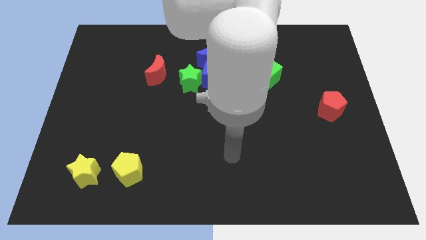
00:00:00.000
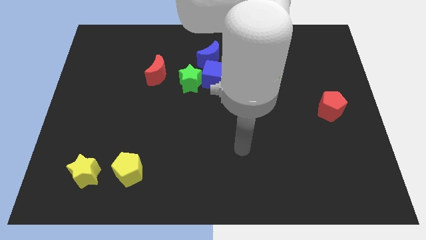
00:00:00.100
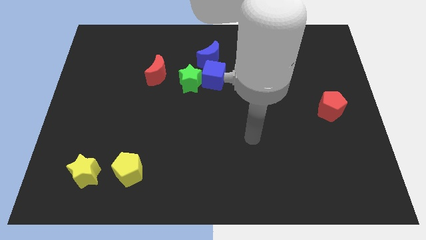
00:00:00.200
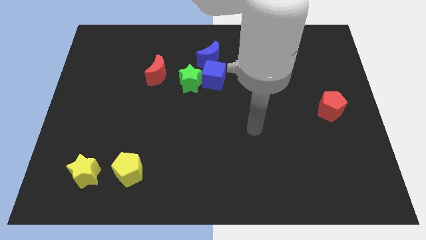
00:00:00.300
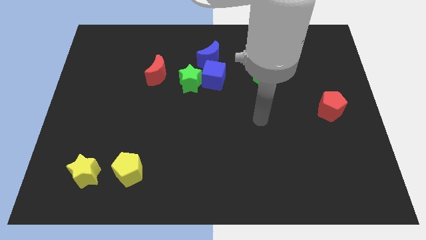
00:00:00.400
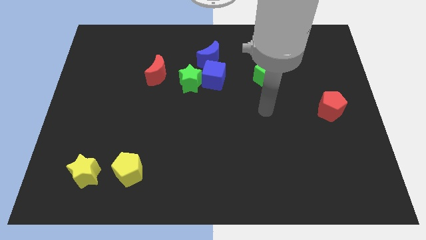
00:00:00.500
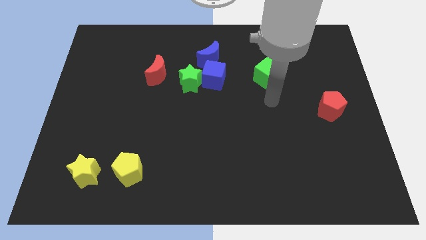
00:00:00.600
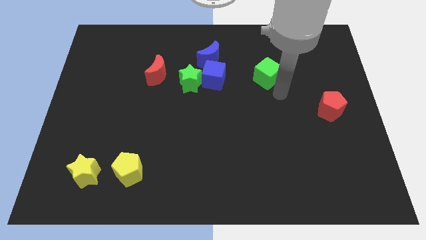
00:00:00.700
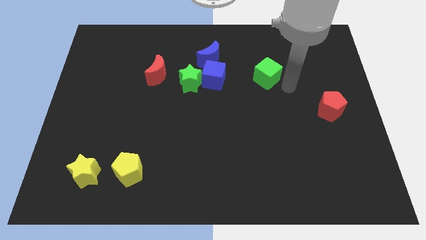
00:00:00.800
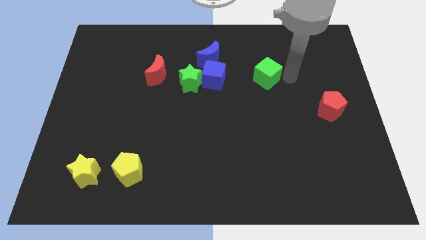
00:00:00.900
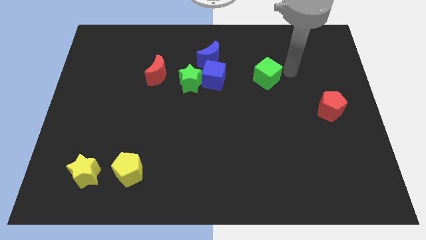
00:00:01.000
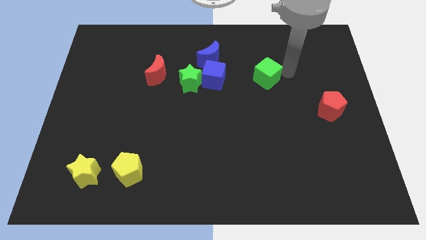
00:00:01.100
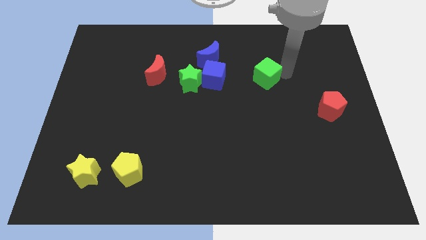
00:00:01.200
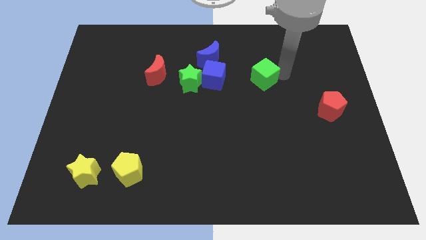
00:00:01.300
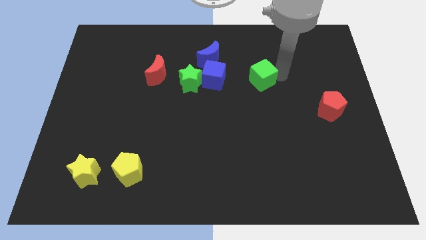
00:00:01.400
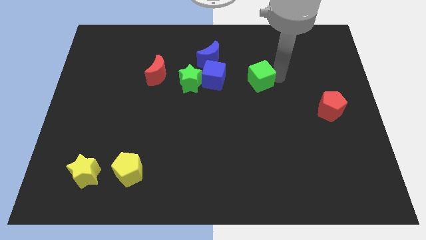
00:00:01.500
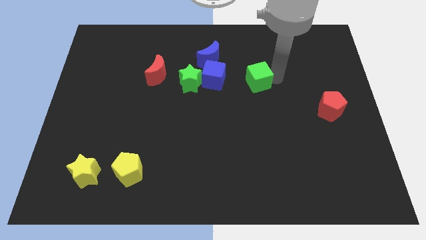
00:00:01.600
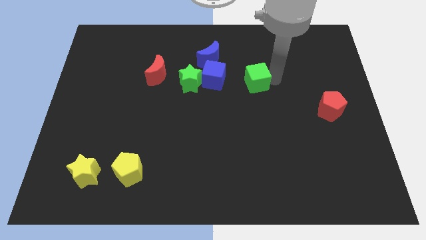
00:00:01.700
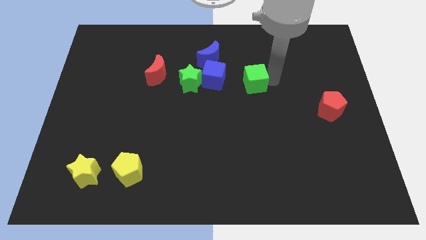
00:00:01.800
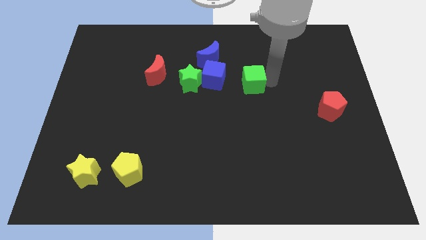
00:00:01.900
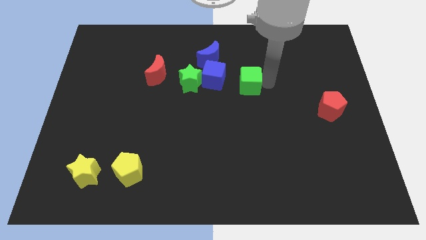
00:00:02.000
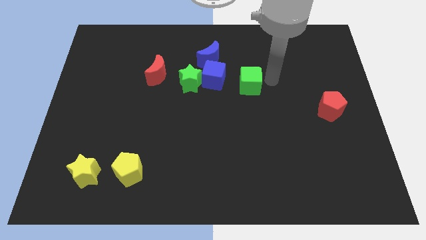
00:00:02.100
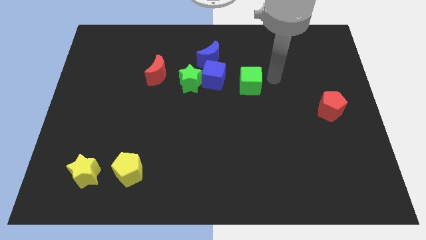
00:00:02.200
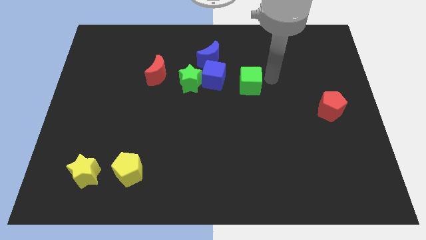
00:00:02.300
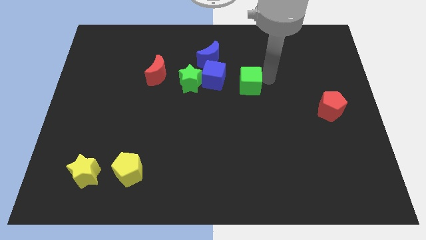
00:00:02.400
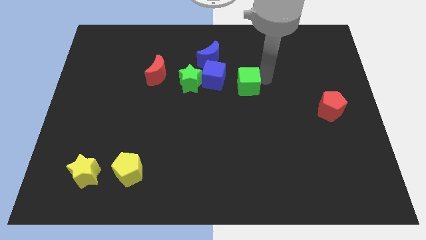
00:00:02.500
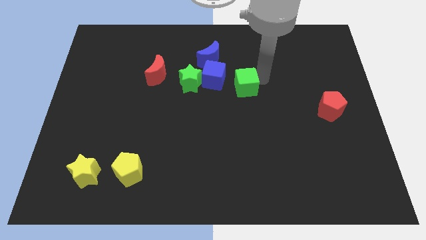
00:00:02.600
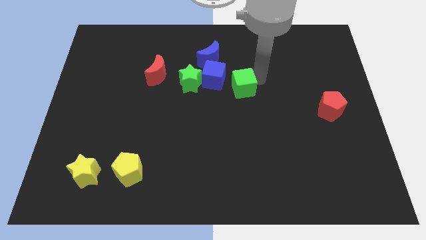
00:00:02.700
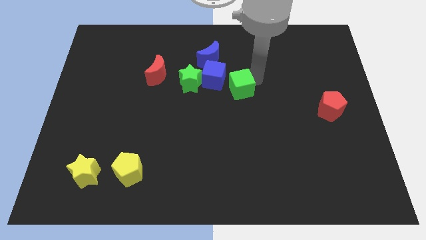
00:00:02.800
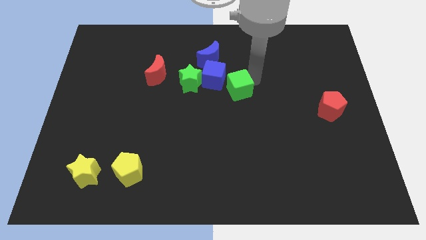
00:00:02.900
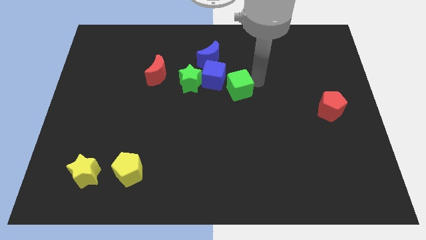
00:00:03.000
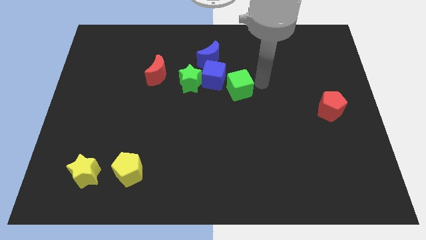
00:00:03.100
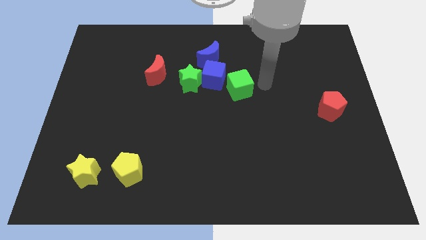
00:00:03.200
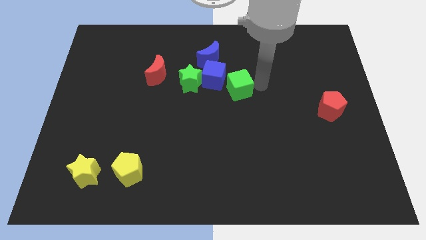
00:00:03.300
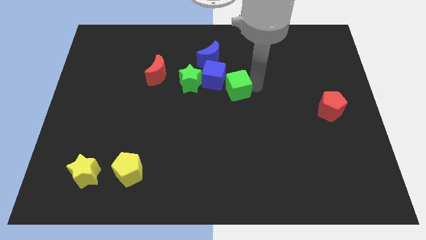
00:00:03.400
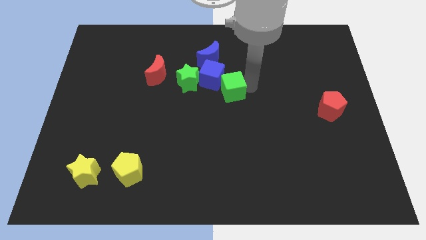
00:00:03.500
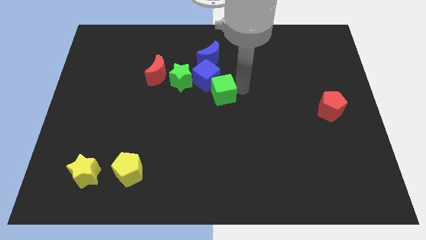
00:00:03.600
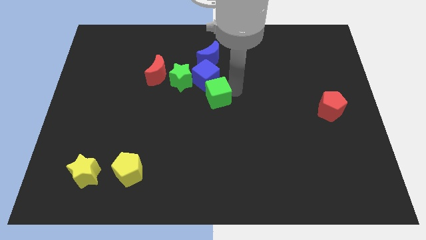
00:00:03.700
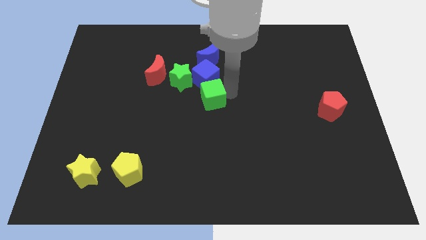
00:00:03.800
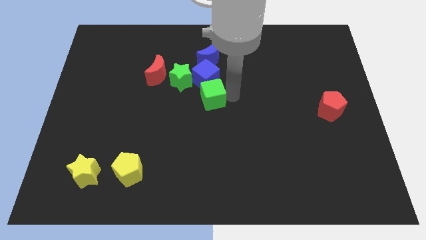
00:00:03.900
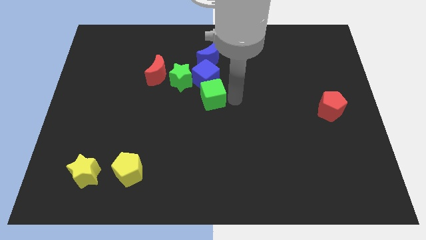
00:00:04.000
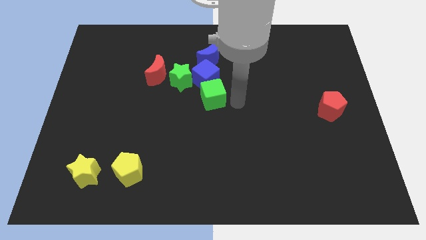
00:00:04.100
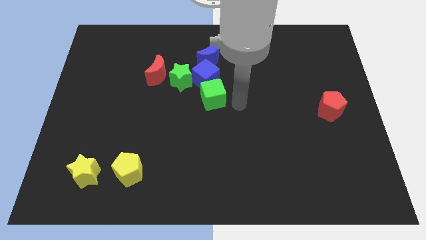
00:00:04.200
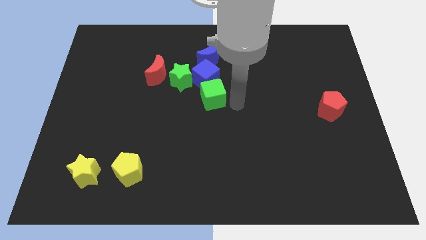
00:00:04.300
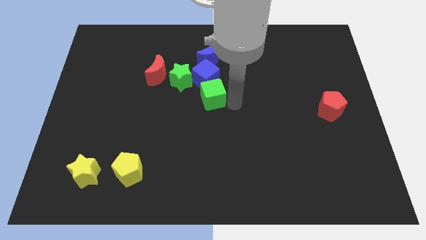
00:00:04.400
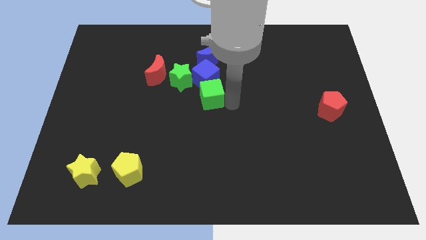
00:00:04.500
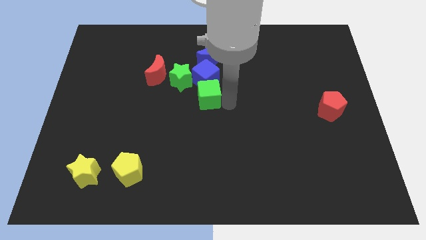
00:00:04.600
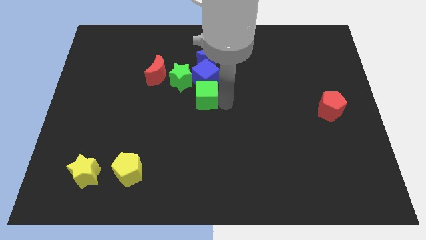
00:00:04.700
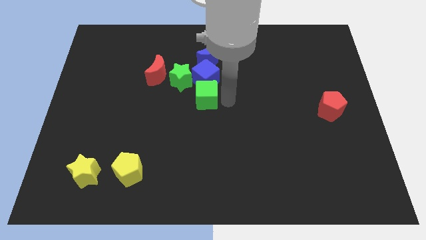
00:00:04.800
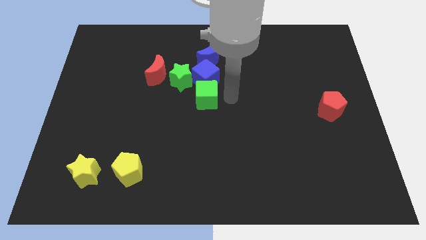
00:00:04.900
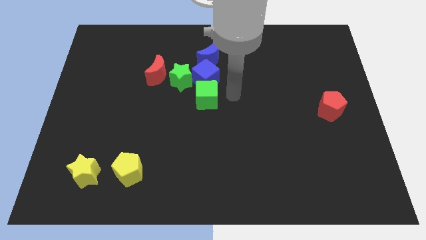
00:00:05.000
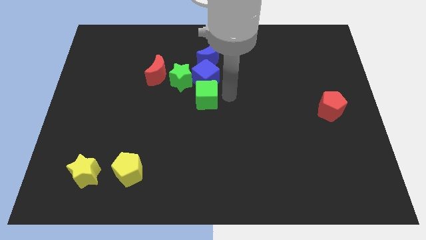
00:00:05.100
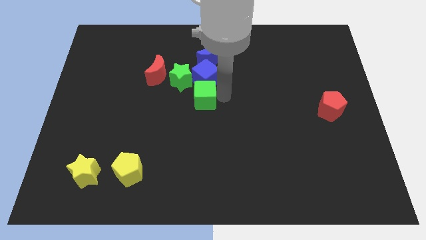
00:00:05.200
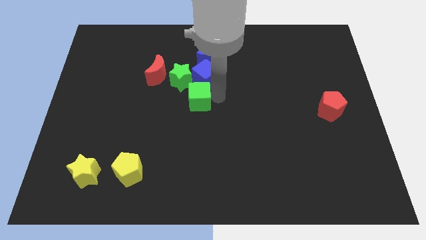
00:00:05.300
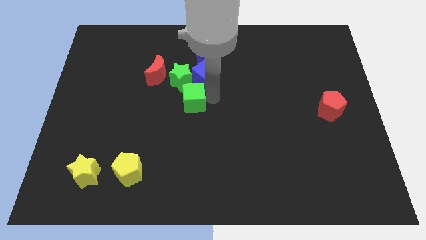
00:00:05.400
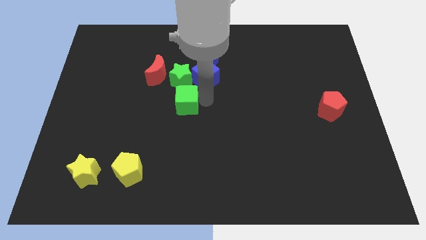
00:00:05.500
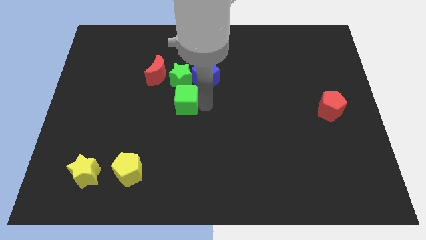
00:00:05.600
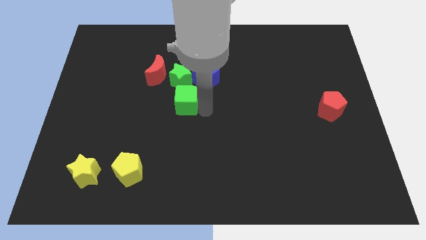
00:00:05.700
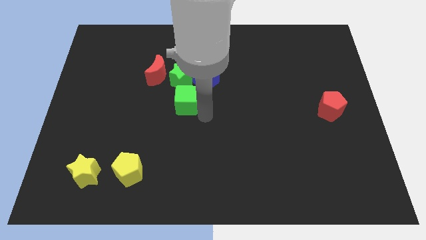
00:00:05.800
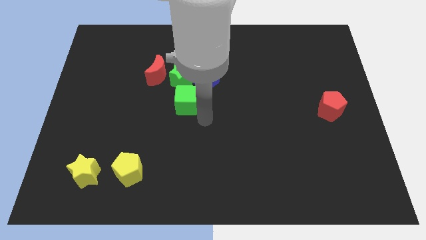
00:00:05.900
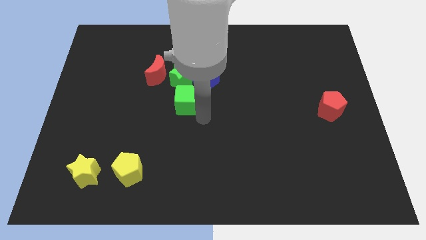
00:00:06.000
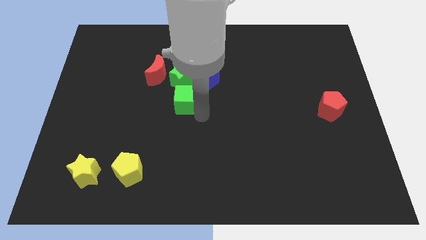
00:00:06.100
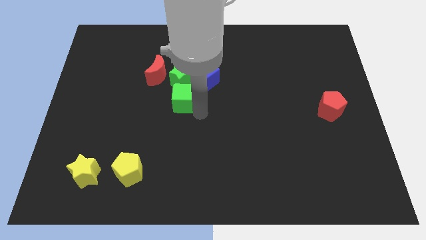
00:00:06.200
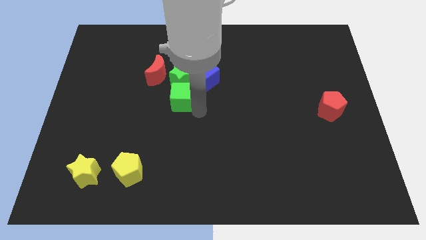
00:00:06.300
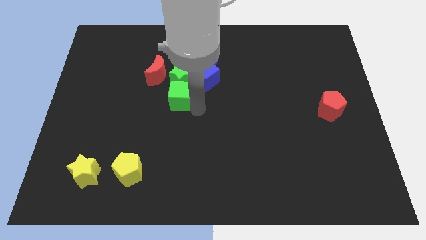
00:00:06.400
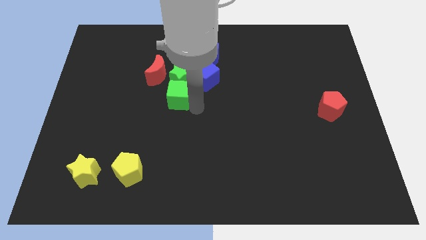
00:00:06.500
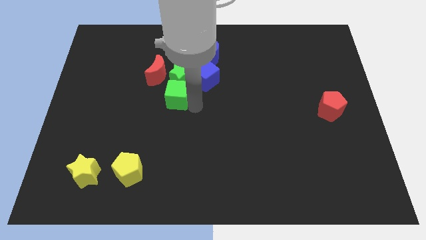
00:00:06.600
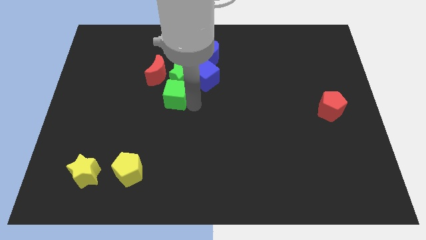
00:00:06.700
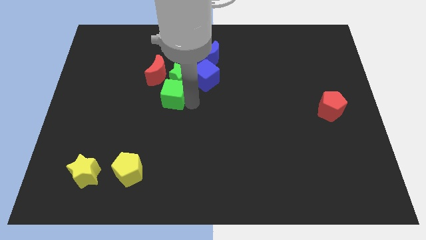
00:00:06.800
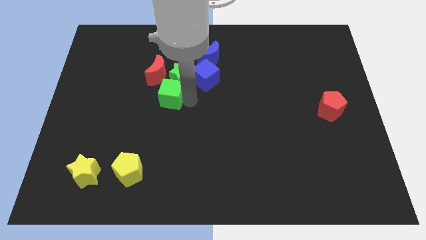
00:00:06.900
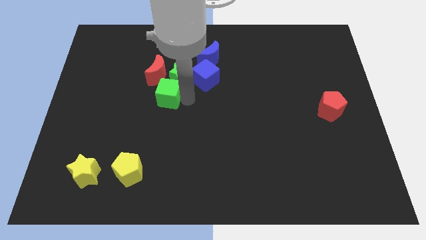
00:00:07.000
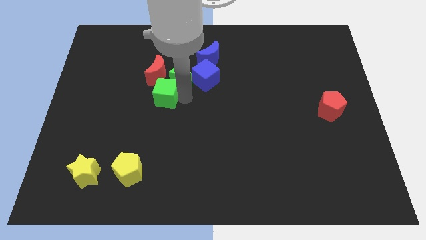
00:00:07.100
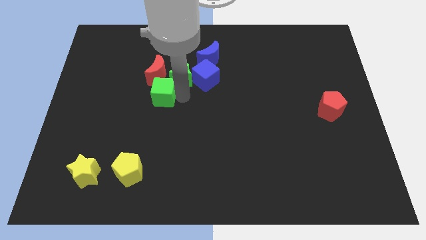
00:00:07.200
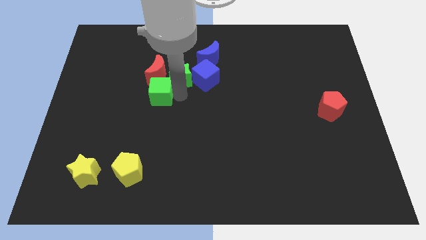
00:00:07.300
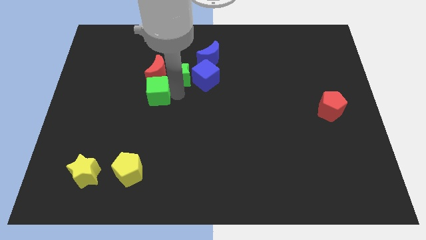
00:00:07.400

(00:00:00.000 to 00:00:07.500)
push the green cube just left of the blue cube

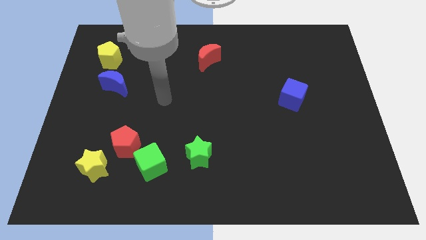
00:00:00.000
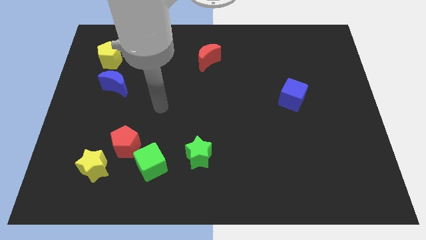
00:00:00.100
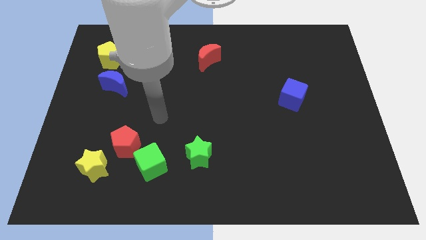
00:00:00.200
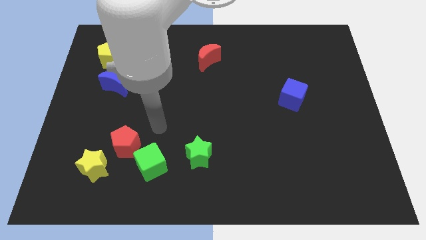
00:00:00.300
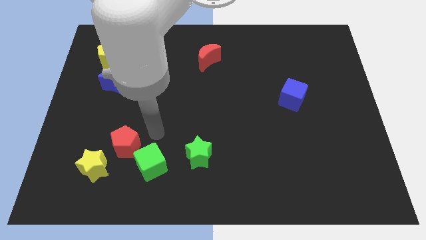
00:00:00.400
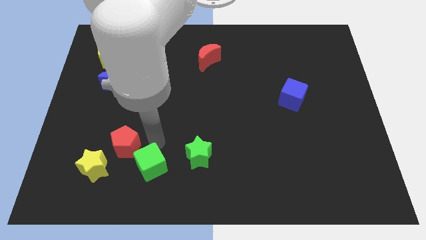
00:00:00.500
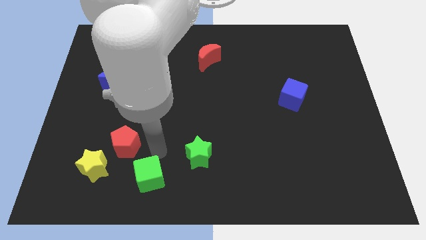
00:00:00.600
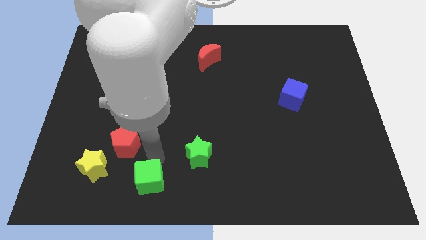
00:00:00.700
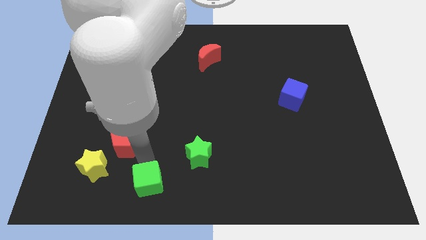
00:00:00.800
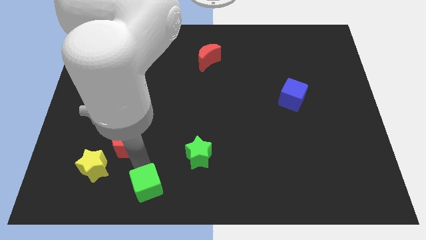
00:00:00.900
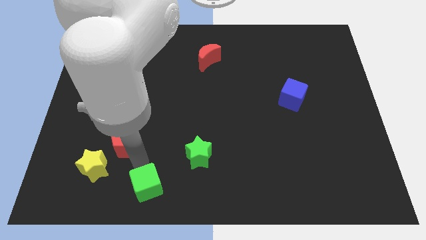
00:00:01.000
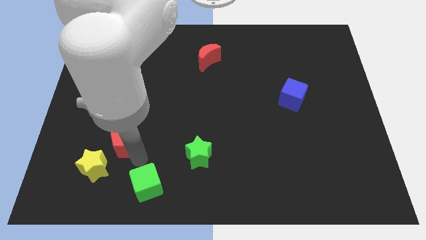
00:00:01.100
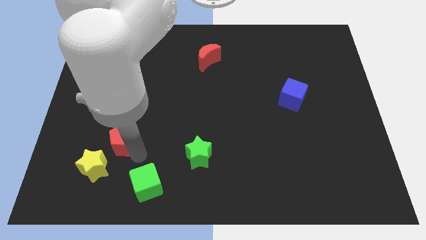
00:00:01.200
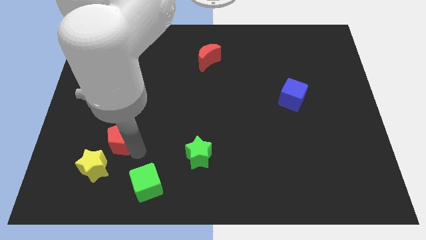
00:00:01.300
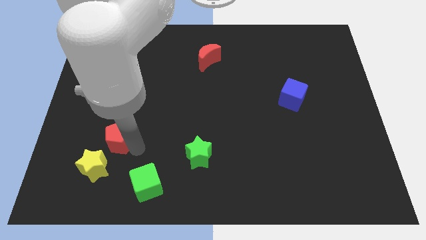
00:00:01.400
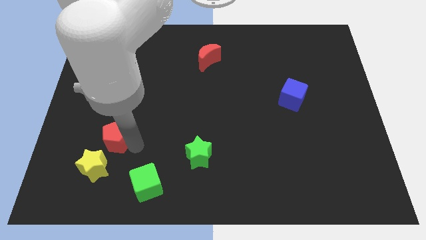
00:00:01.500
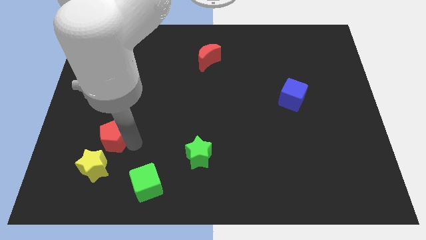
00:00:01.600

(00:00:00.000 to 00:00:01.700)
put the red pentagon to the bottom of the blue moon
